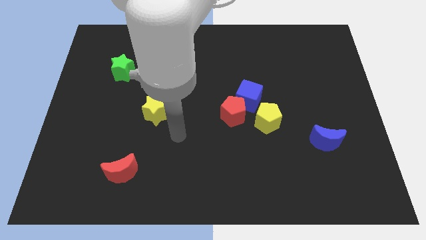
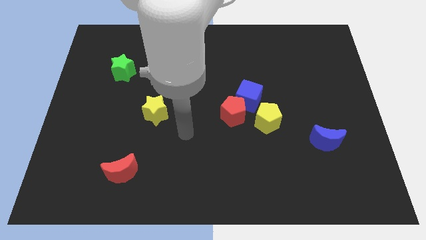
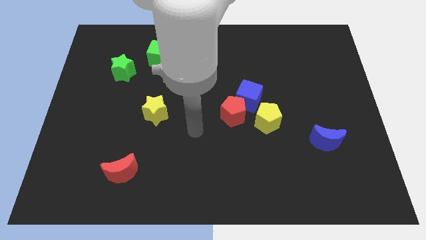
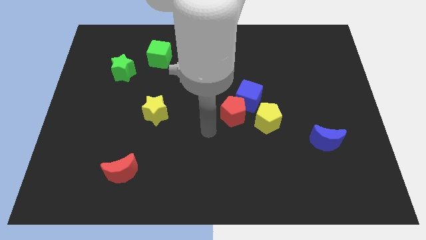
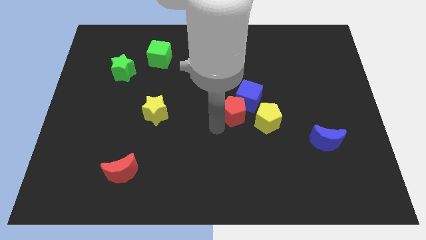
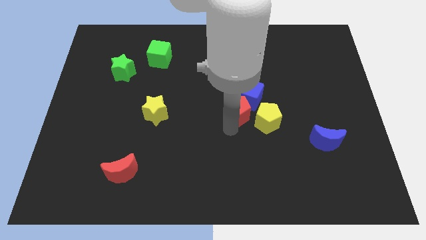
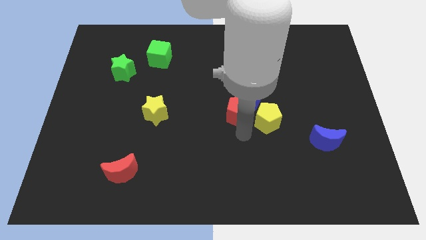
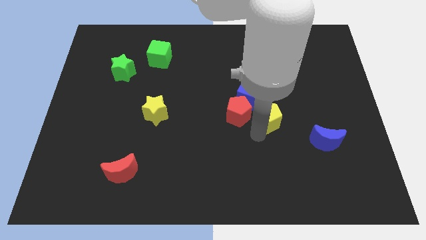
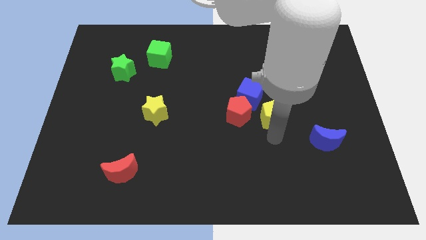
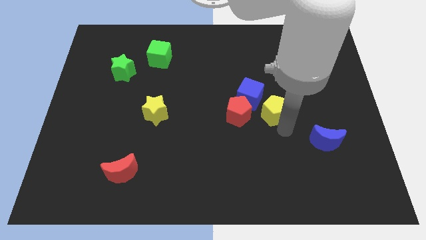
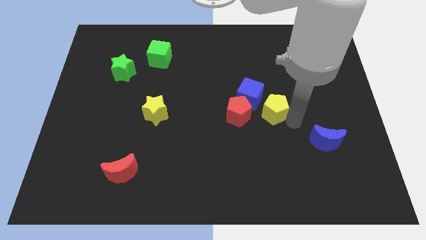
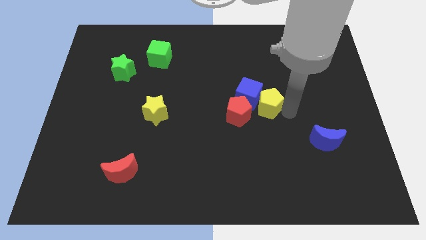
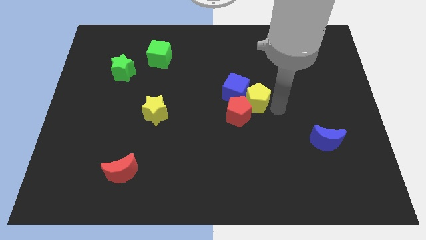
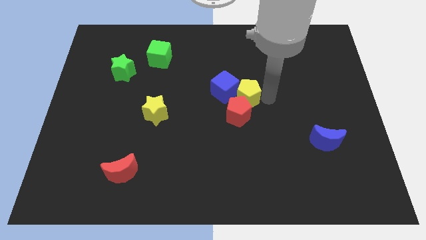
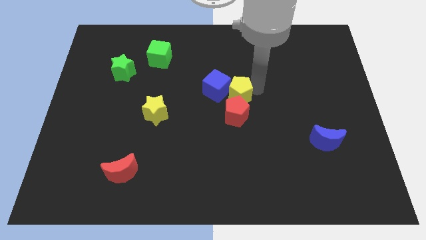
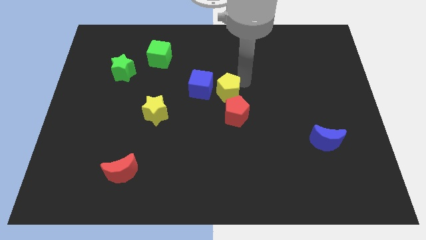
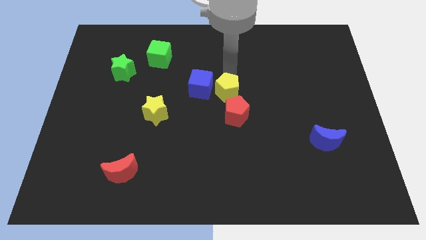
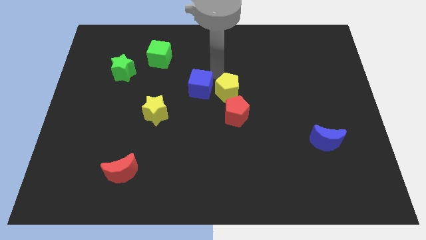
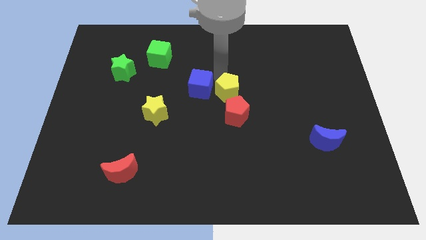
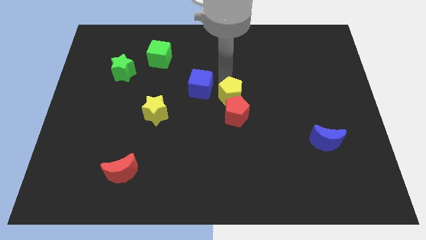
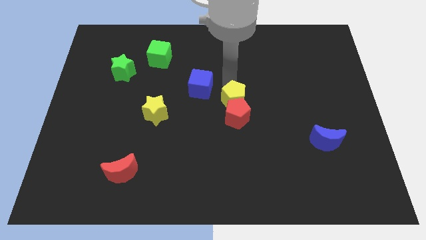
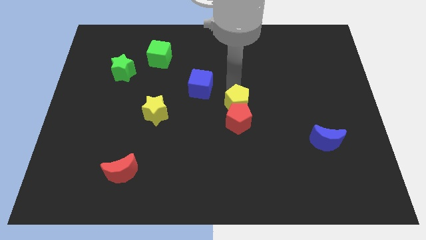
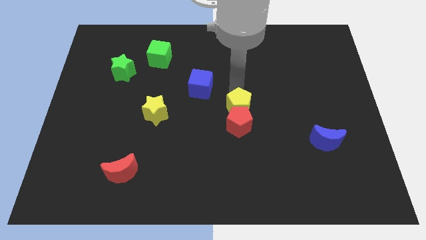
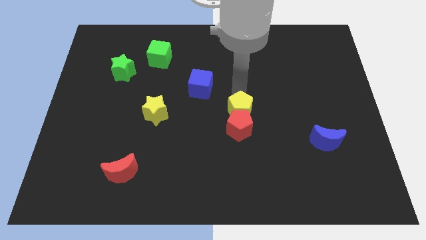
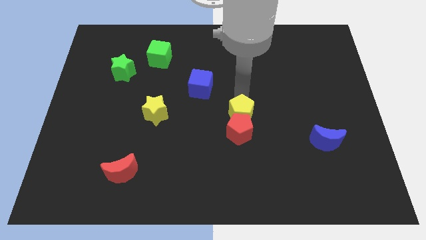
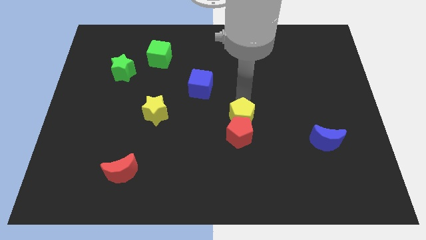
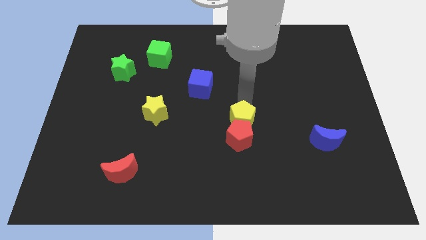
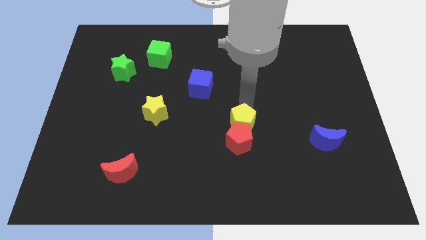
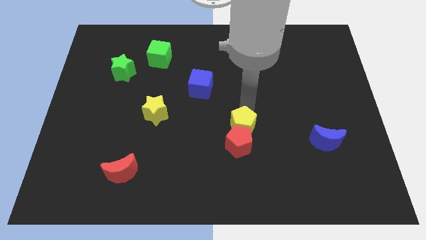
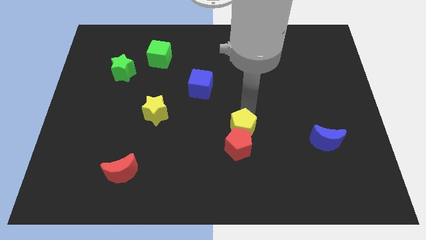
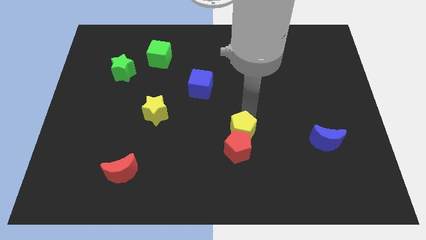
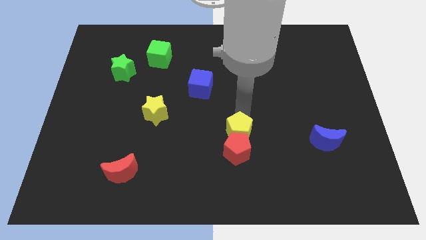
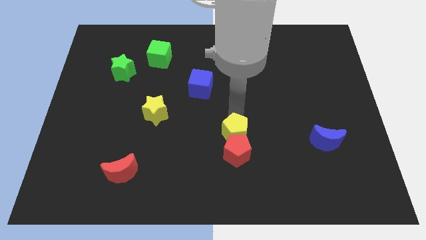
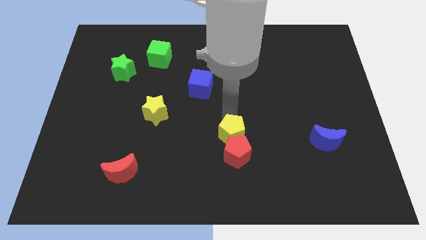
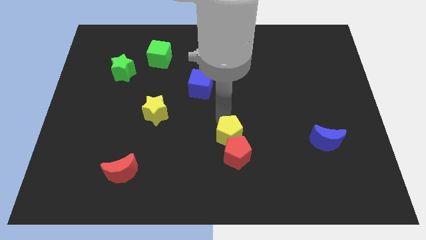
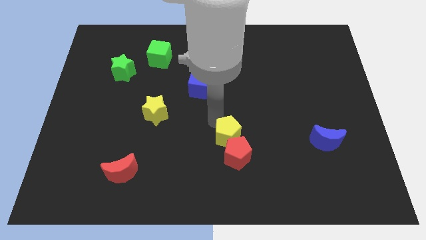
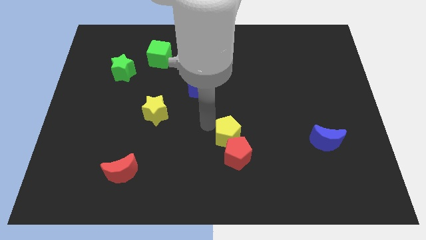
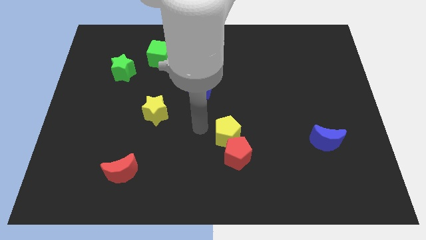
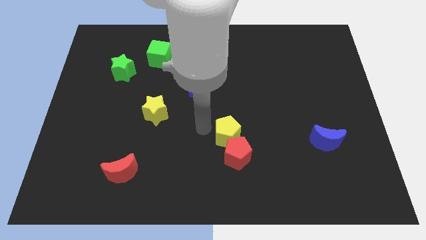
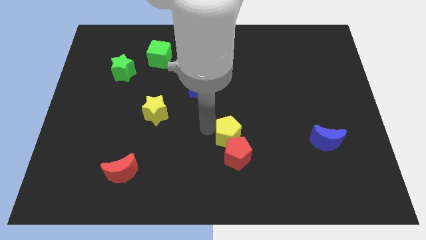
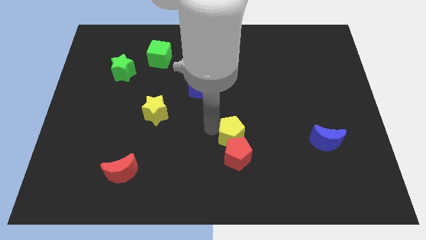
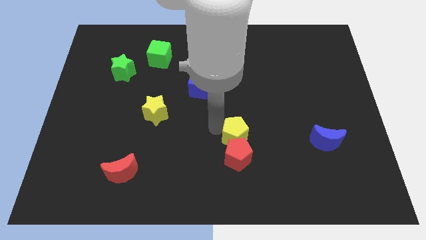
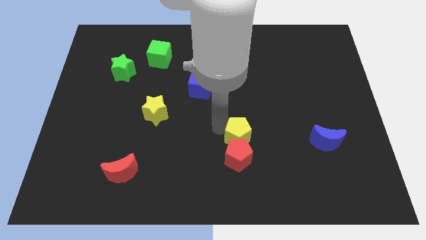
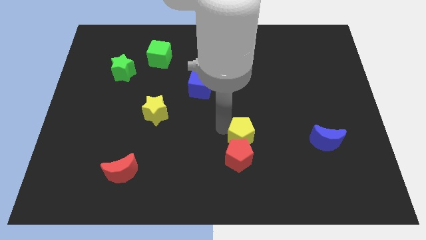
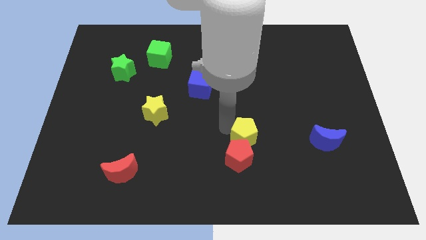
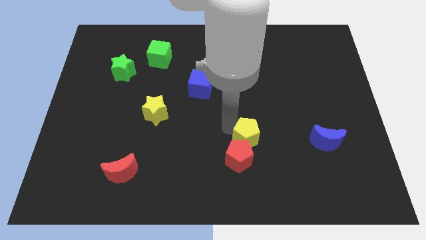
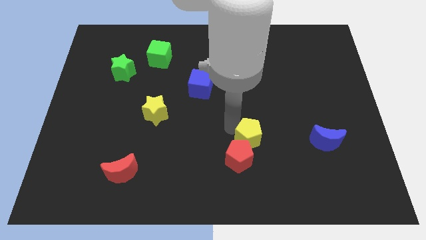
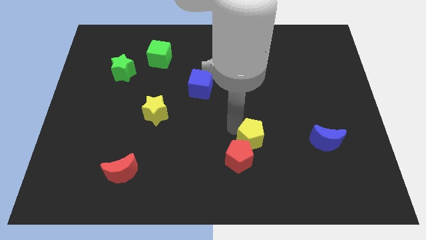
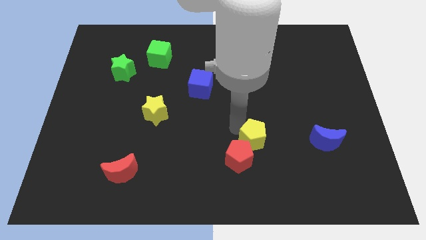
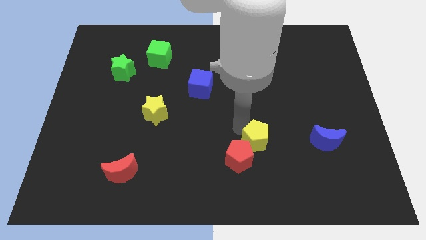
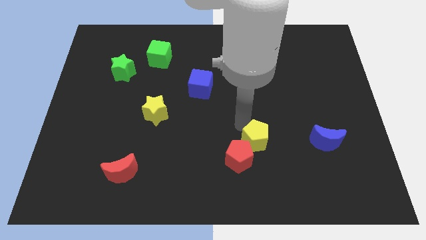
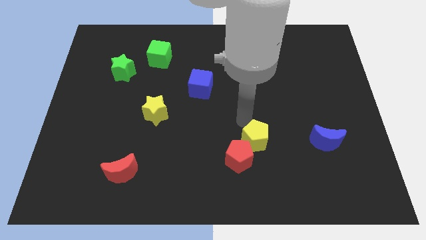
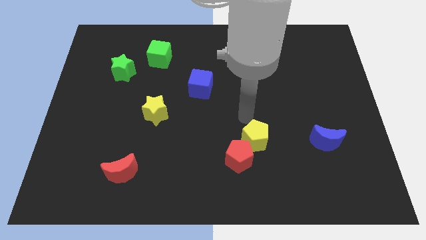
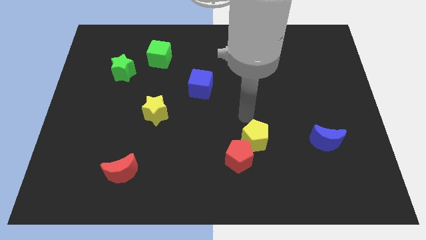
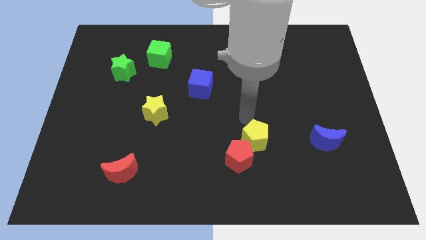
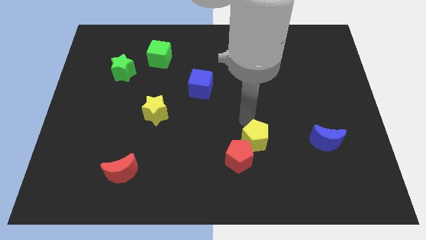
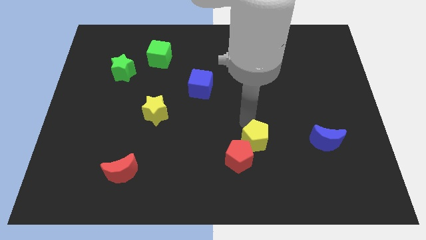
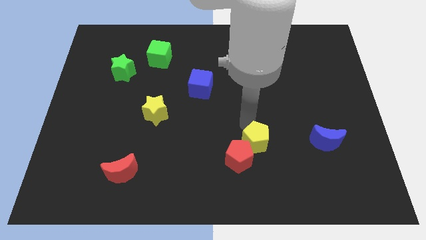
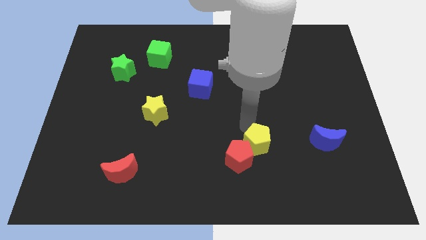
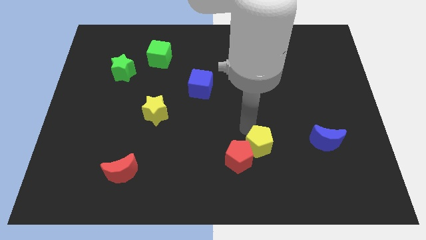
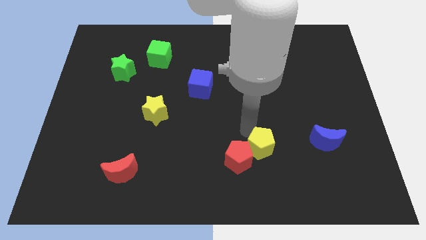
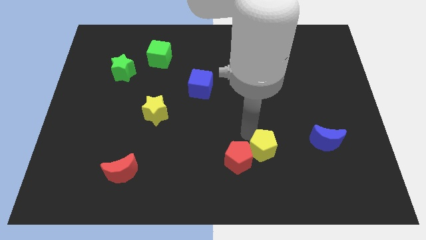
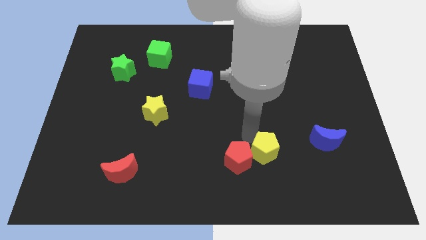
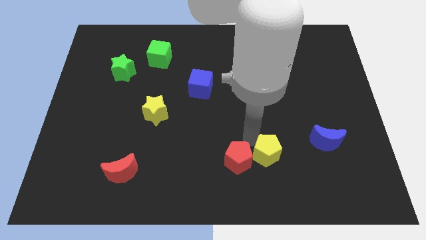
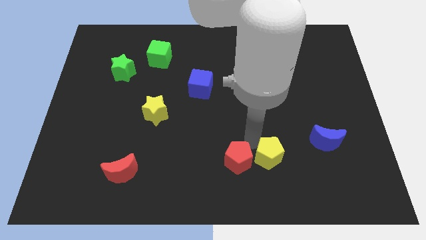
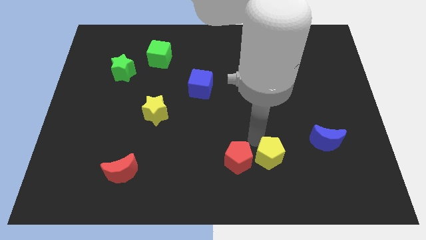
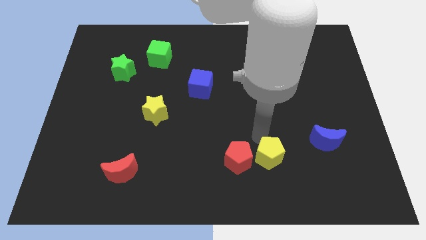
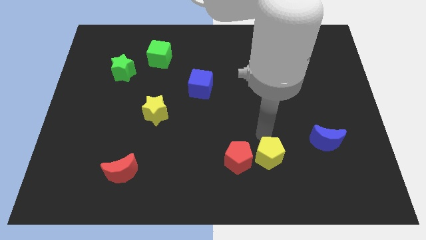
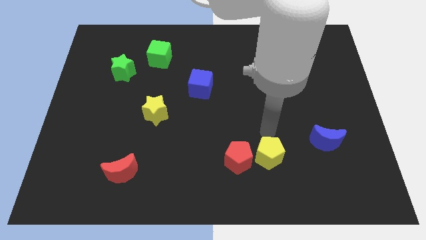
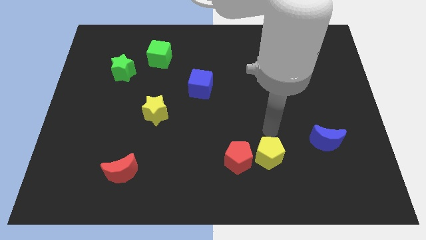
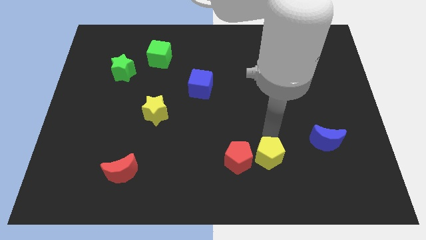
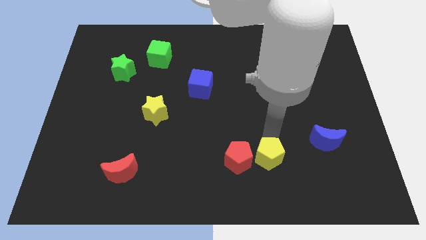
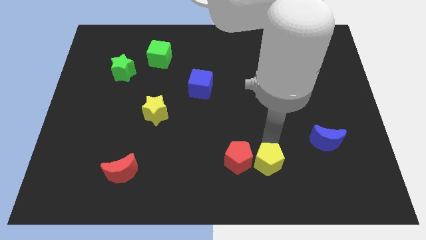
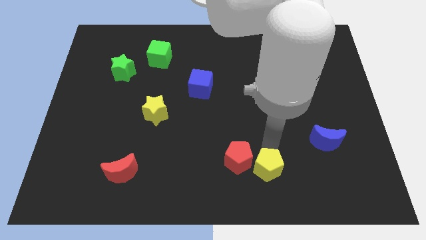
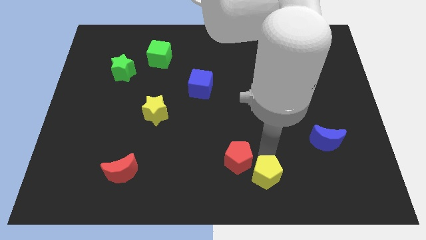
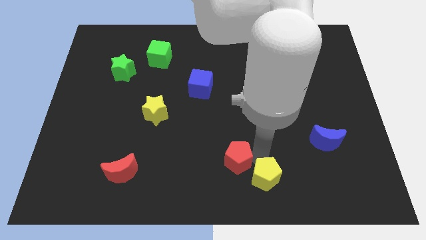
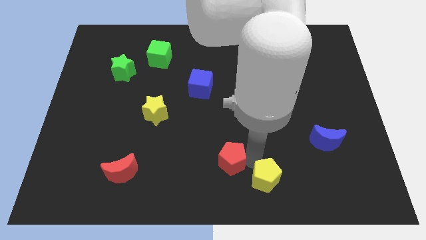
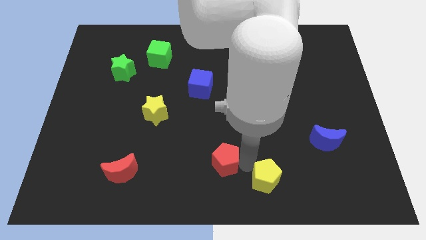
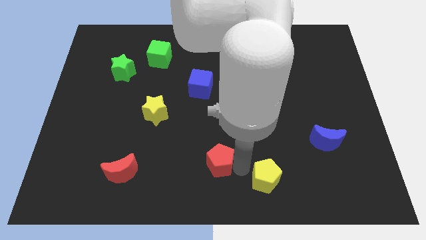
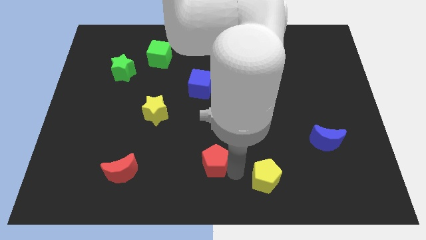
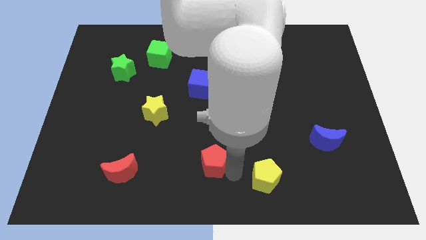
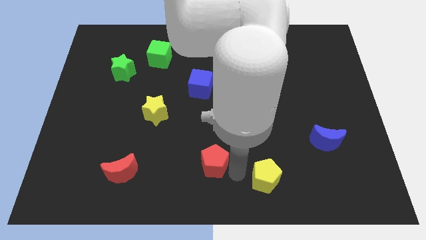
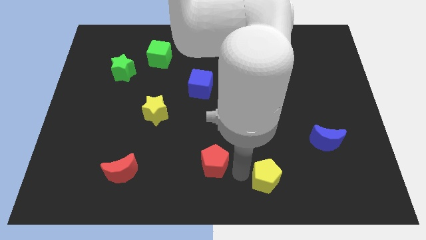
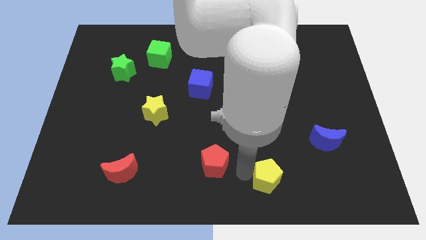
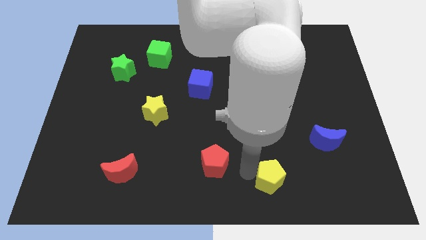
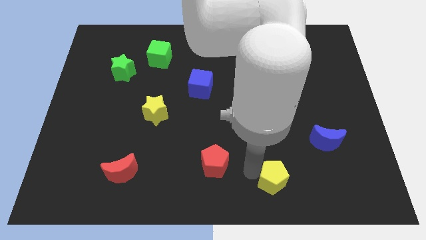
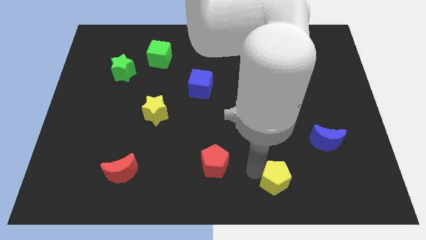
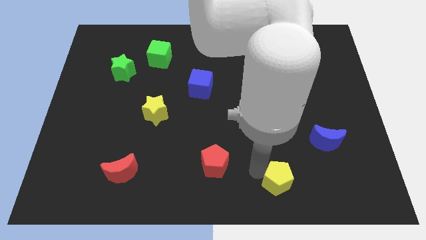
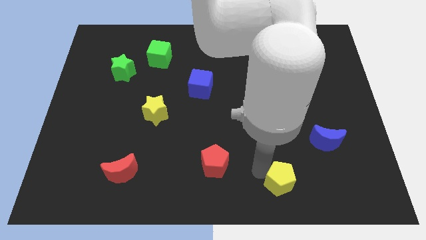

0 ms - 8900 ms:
slightly move the yellow pentagon down and then to the right
